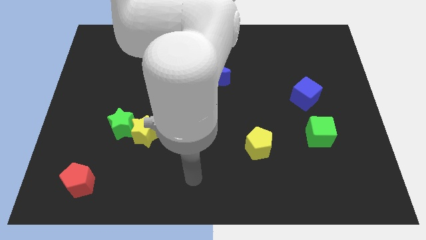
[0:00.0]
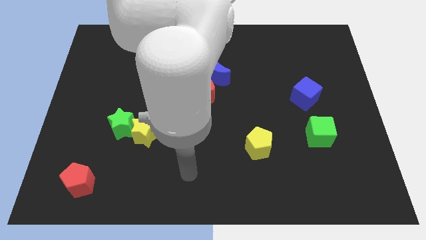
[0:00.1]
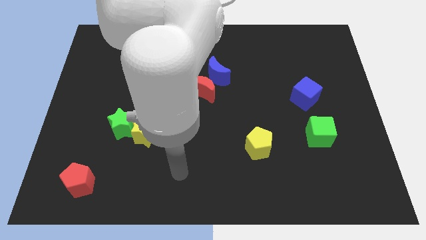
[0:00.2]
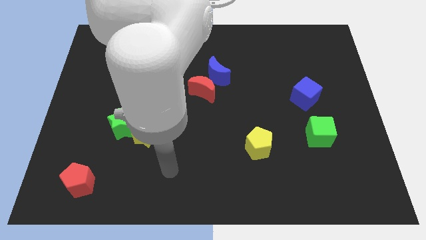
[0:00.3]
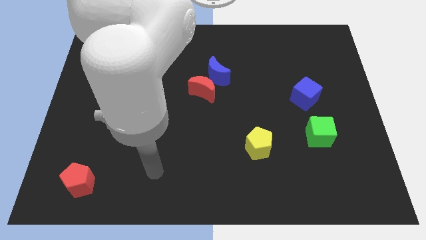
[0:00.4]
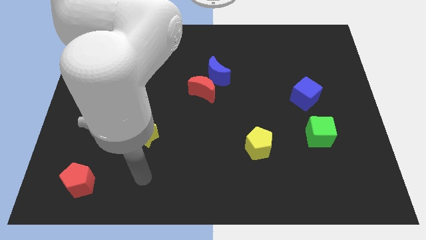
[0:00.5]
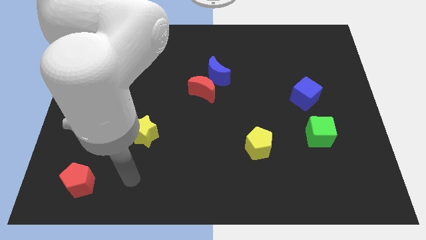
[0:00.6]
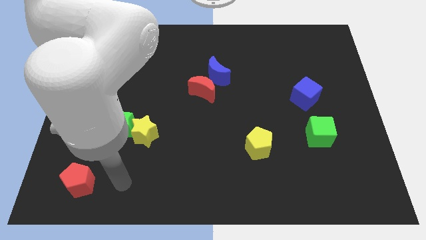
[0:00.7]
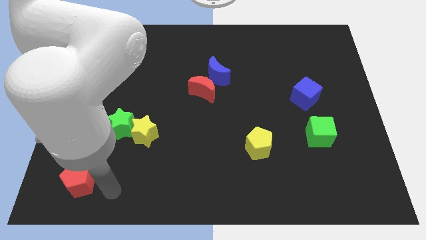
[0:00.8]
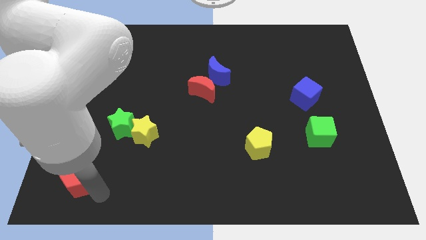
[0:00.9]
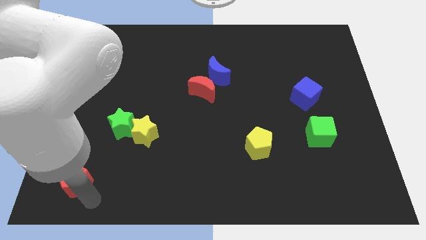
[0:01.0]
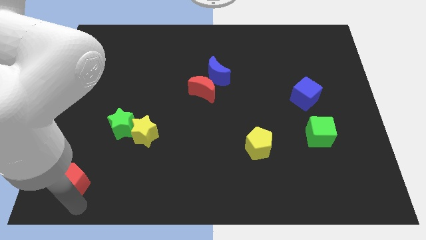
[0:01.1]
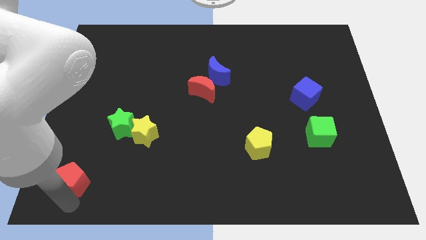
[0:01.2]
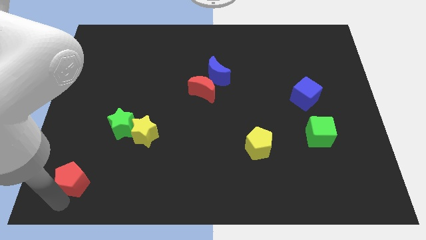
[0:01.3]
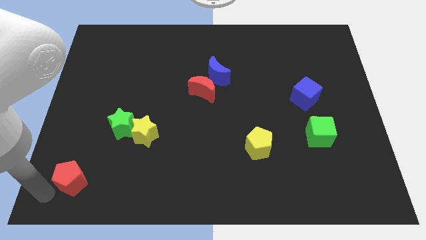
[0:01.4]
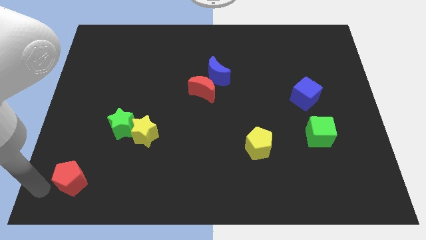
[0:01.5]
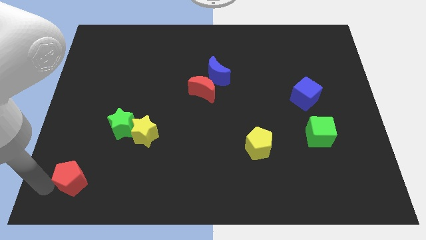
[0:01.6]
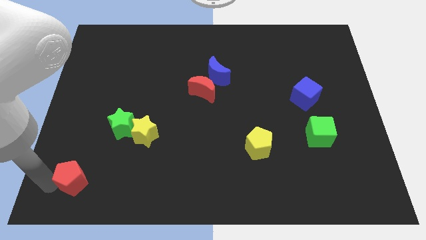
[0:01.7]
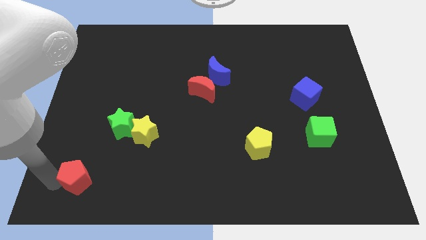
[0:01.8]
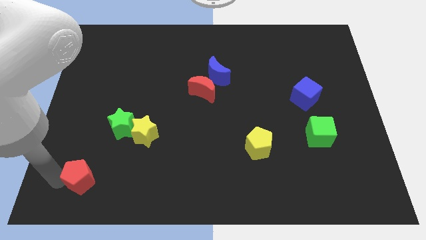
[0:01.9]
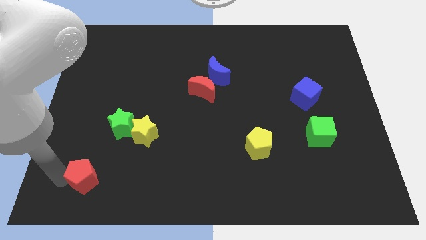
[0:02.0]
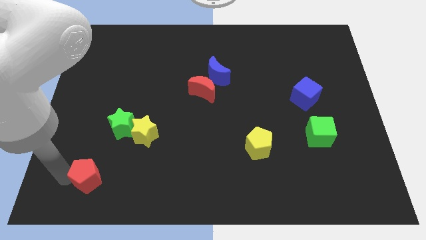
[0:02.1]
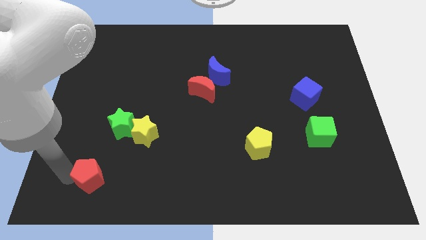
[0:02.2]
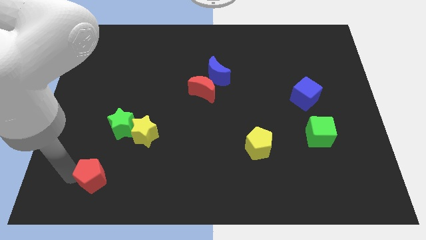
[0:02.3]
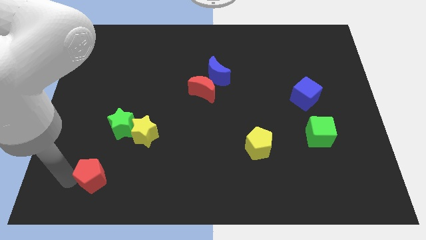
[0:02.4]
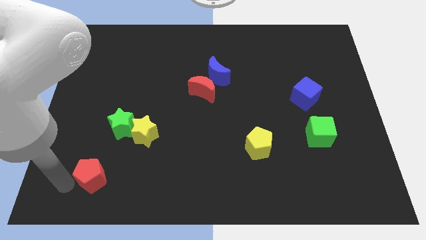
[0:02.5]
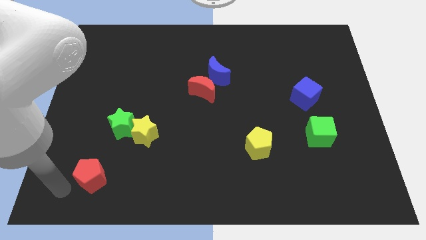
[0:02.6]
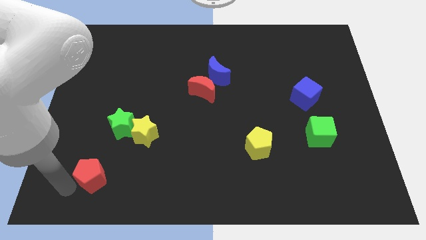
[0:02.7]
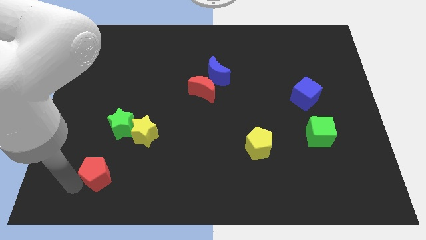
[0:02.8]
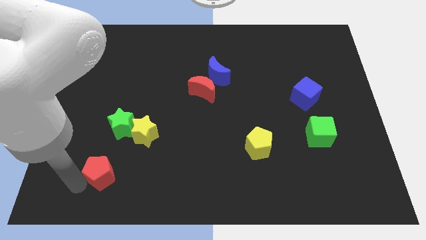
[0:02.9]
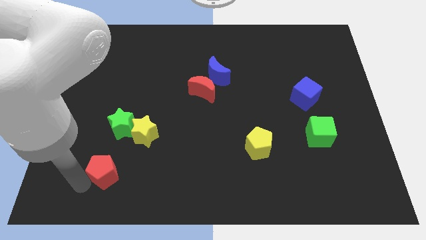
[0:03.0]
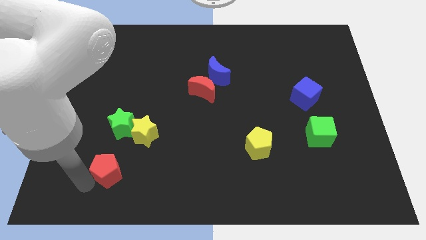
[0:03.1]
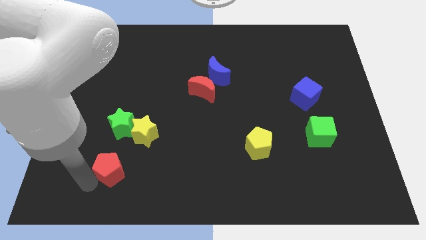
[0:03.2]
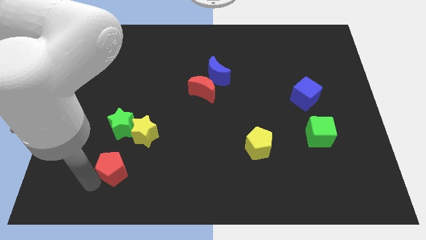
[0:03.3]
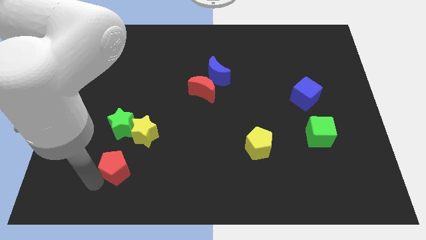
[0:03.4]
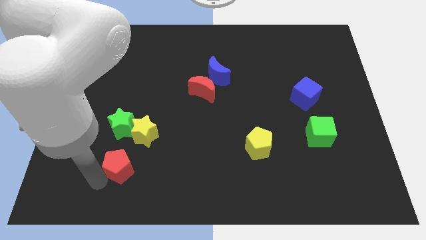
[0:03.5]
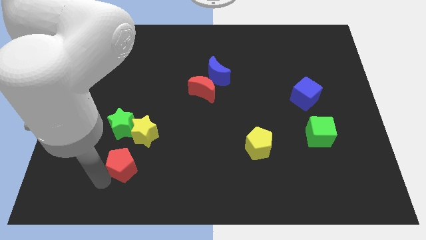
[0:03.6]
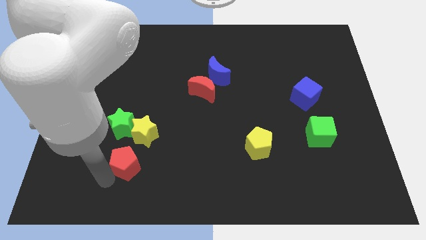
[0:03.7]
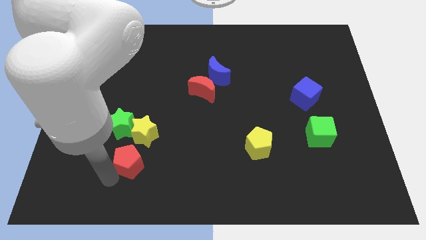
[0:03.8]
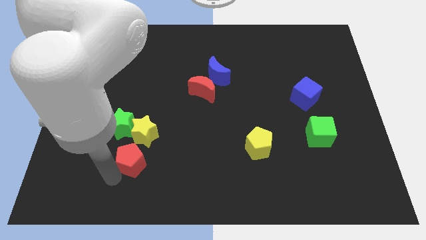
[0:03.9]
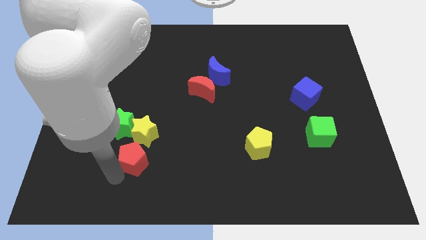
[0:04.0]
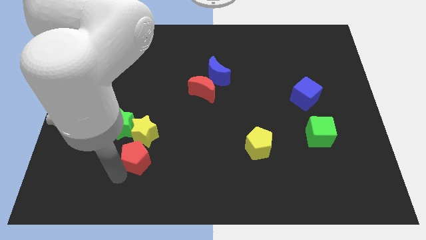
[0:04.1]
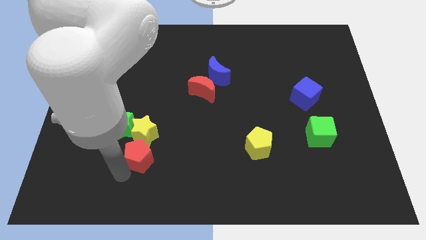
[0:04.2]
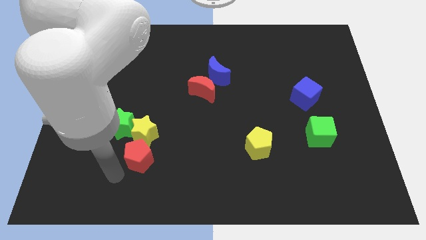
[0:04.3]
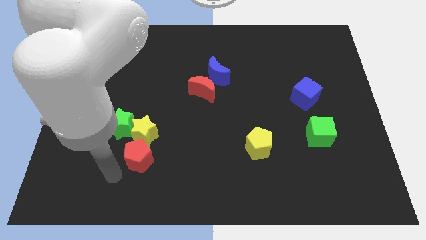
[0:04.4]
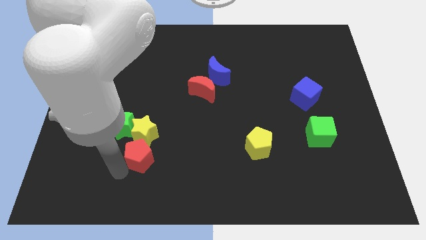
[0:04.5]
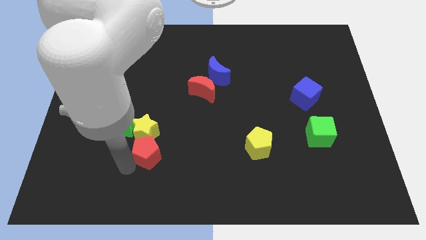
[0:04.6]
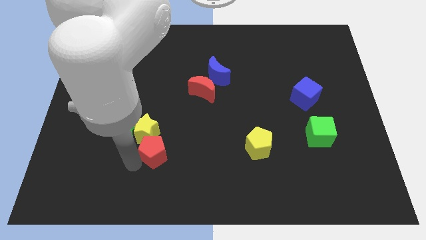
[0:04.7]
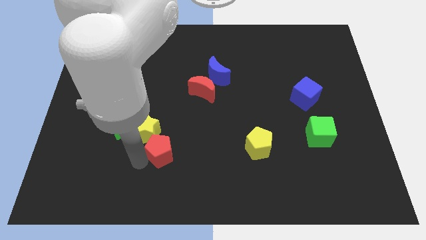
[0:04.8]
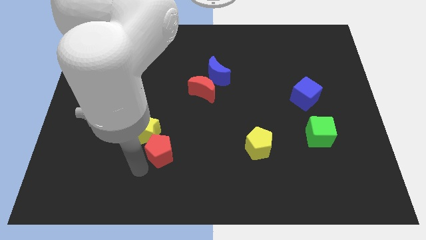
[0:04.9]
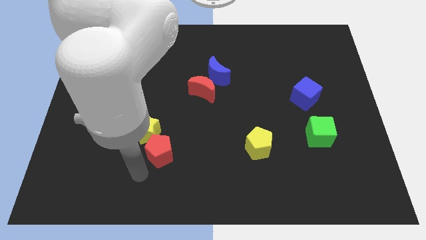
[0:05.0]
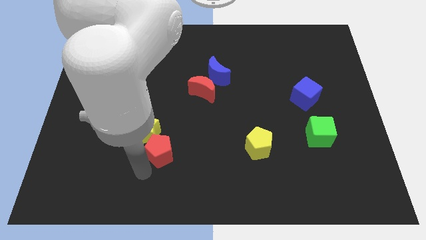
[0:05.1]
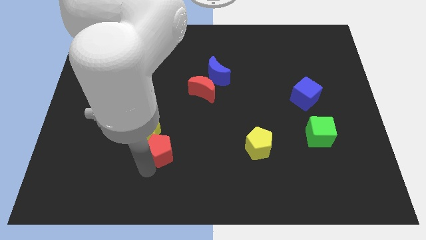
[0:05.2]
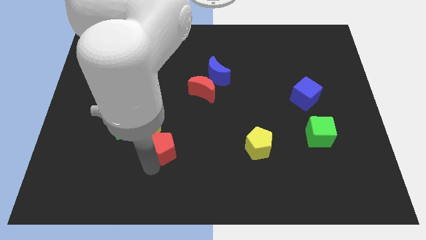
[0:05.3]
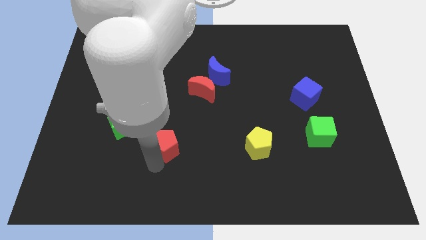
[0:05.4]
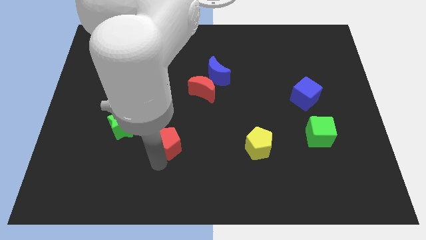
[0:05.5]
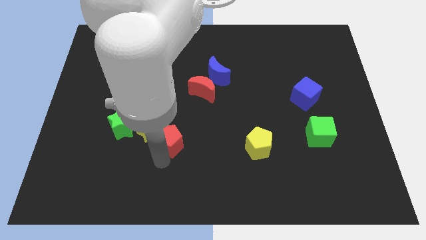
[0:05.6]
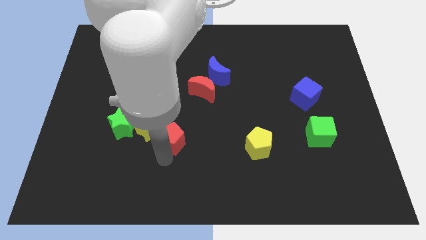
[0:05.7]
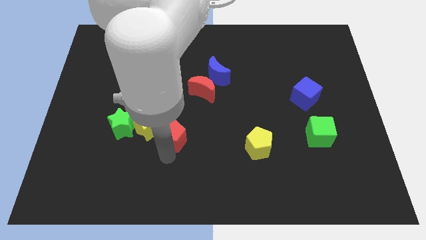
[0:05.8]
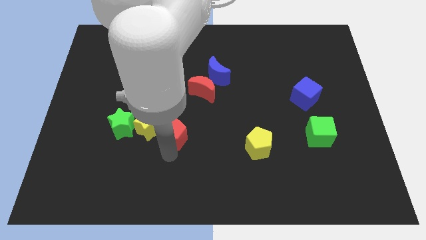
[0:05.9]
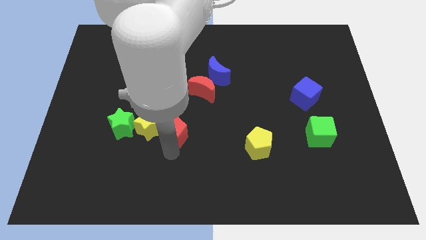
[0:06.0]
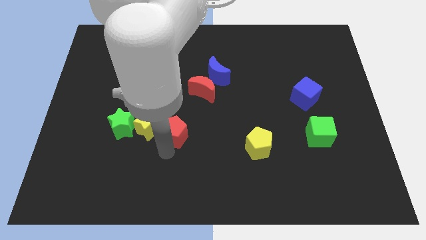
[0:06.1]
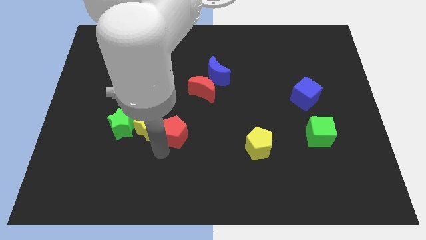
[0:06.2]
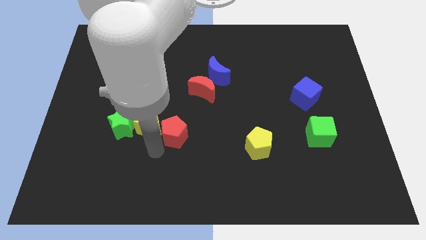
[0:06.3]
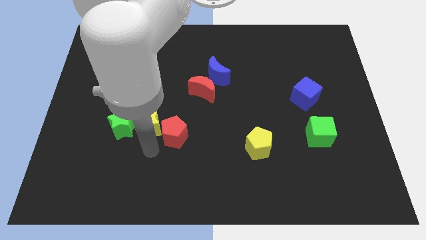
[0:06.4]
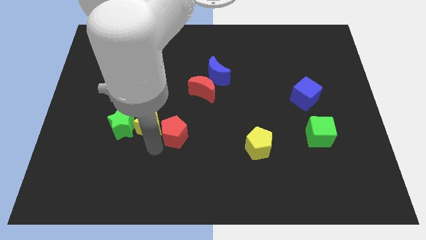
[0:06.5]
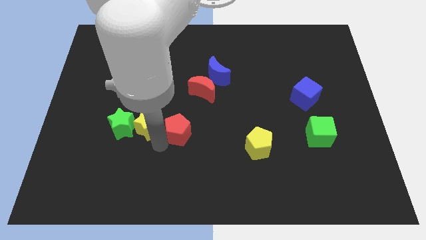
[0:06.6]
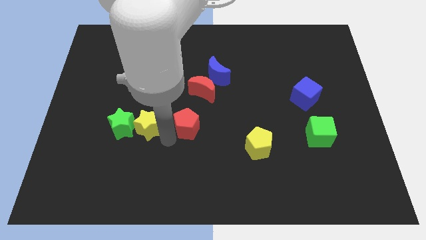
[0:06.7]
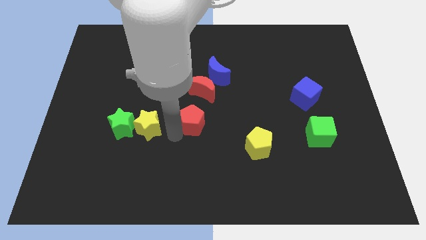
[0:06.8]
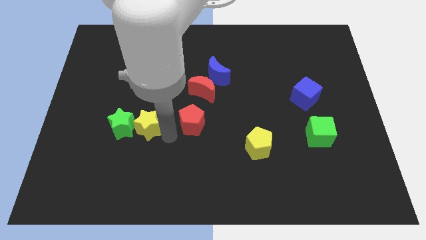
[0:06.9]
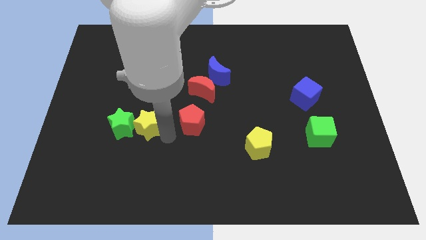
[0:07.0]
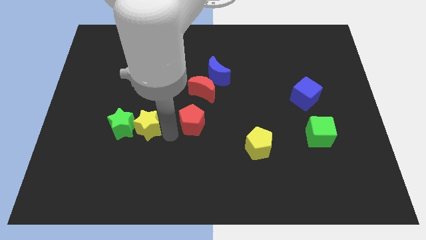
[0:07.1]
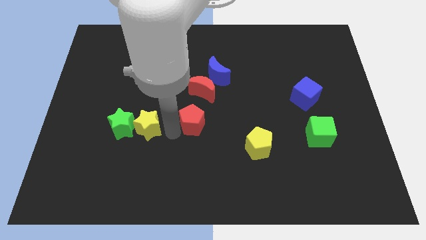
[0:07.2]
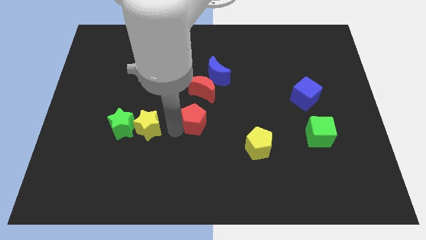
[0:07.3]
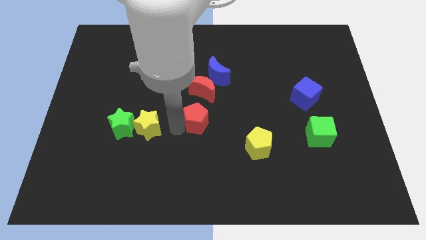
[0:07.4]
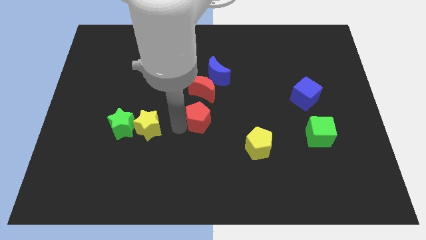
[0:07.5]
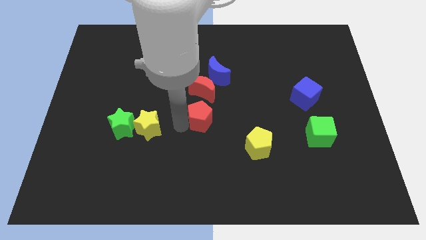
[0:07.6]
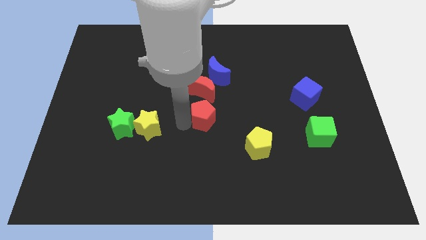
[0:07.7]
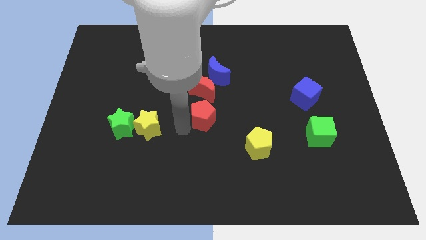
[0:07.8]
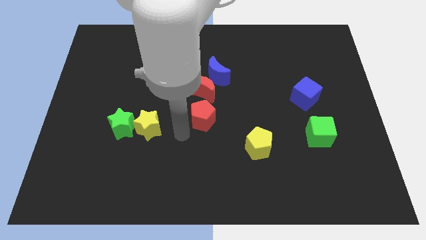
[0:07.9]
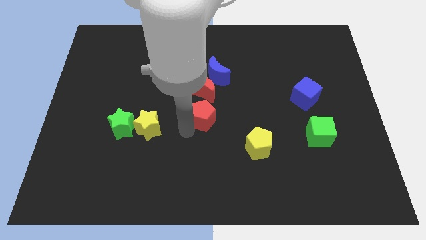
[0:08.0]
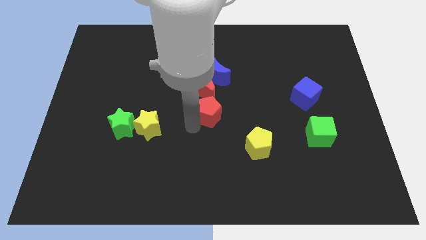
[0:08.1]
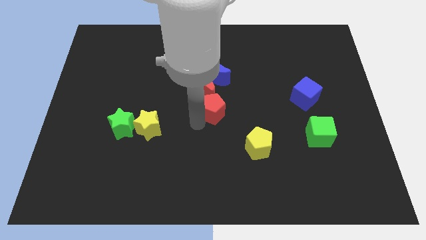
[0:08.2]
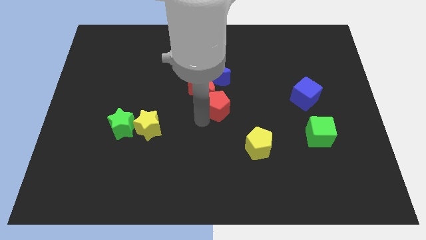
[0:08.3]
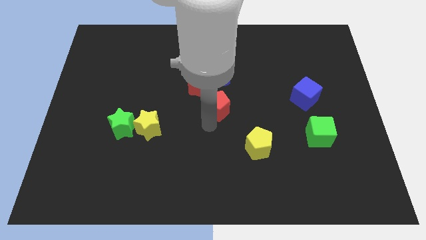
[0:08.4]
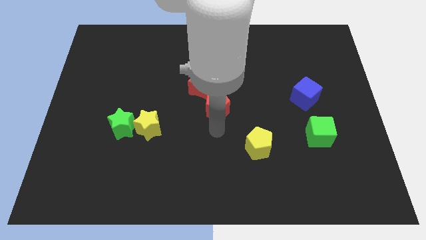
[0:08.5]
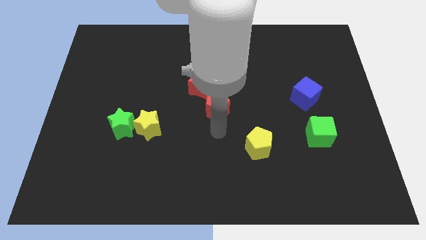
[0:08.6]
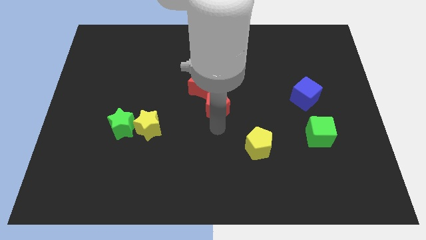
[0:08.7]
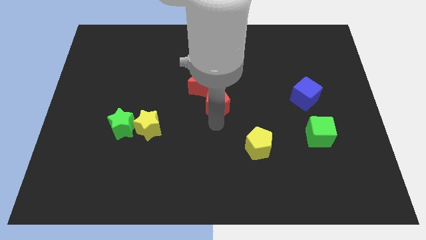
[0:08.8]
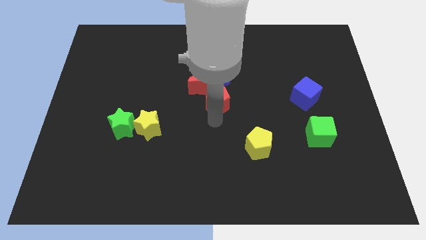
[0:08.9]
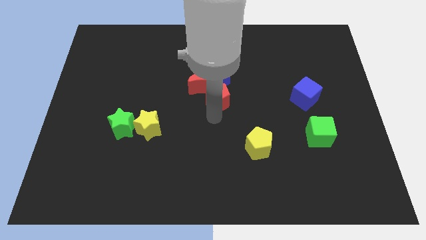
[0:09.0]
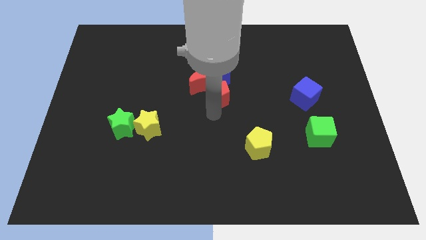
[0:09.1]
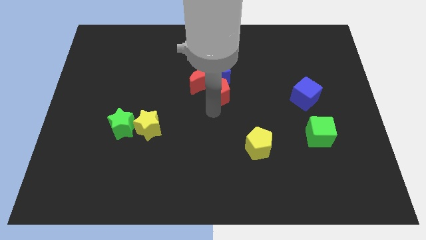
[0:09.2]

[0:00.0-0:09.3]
slide the red pentagon next to the blue moon
